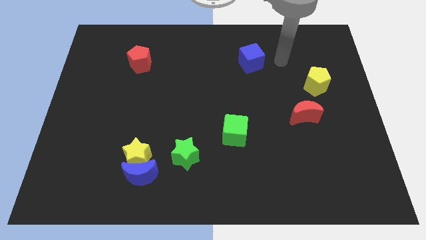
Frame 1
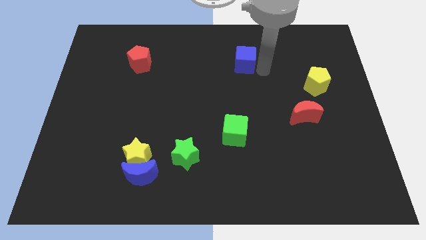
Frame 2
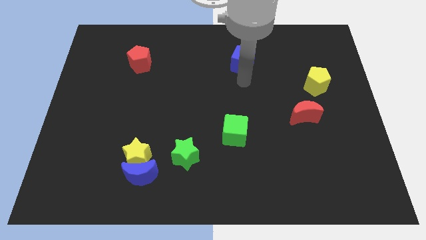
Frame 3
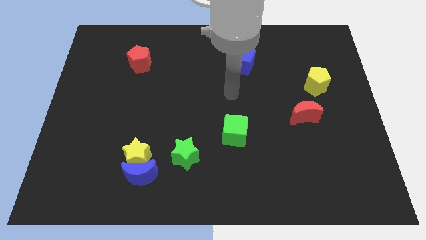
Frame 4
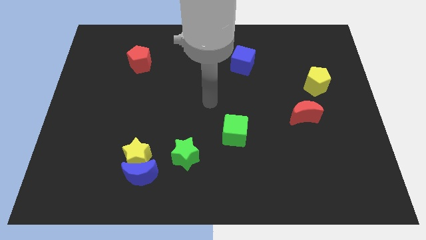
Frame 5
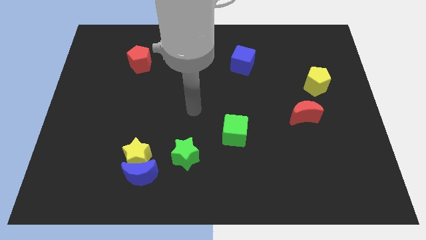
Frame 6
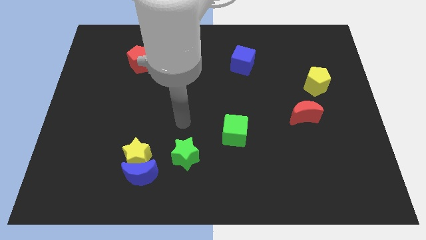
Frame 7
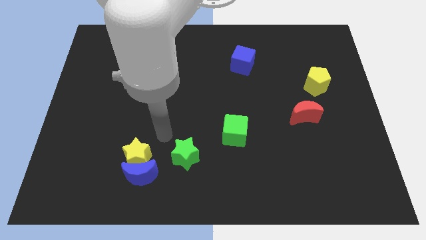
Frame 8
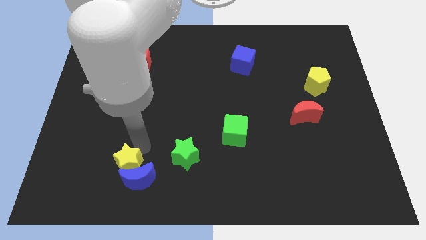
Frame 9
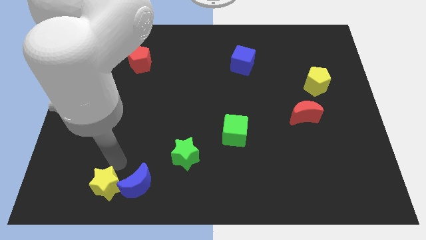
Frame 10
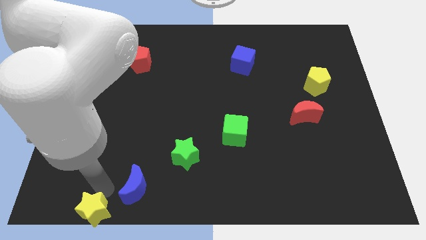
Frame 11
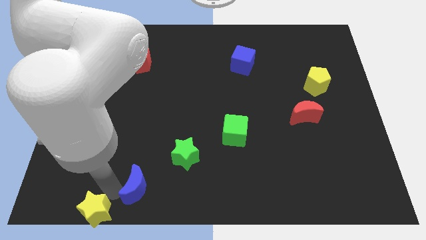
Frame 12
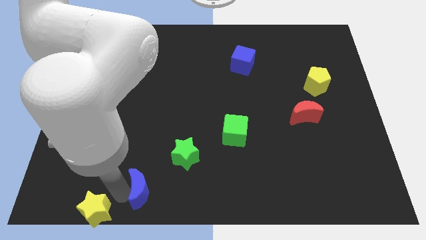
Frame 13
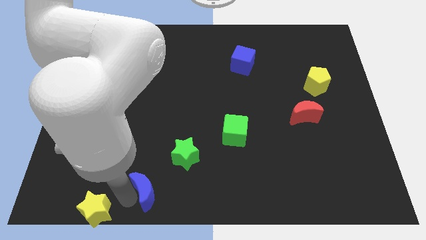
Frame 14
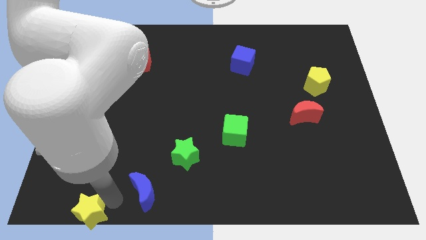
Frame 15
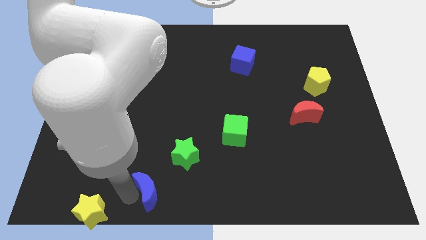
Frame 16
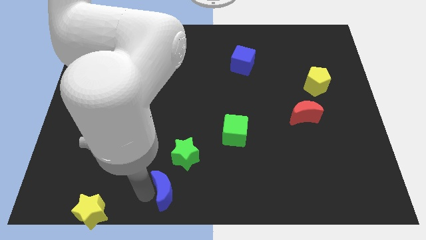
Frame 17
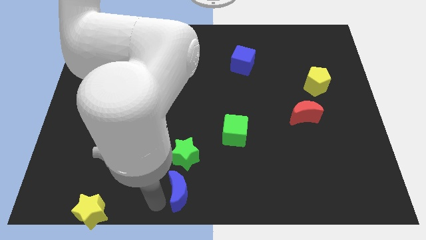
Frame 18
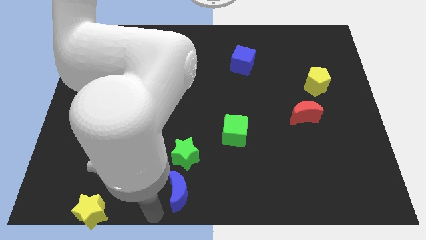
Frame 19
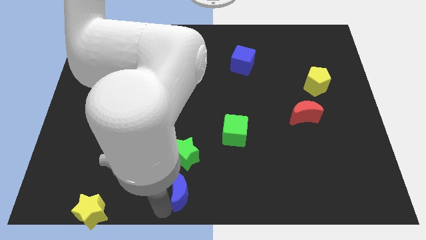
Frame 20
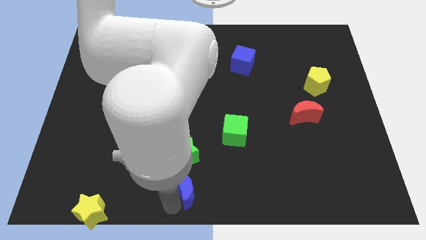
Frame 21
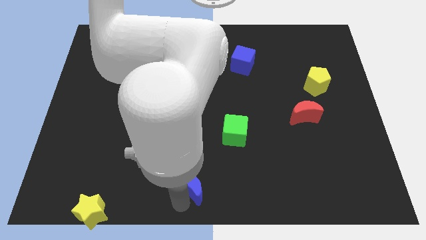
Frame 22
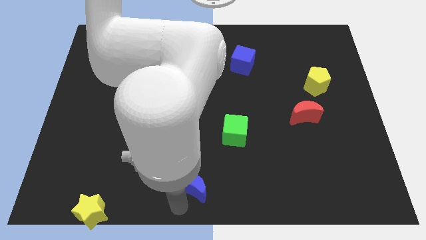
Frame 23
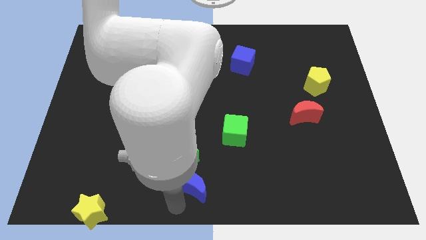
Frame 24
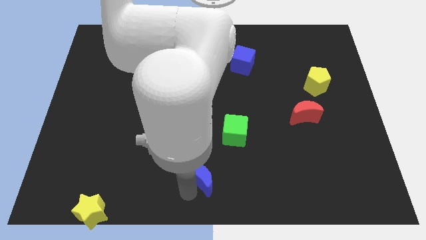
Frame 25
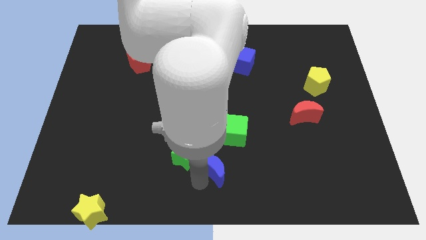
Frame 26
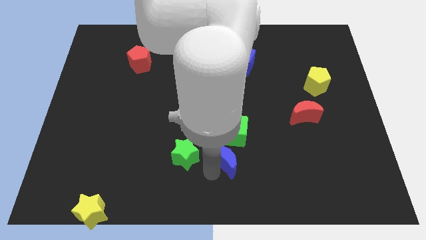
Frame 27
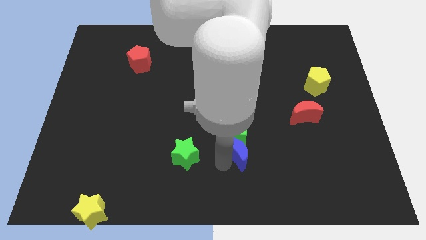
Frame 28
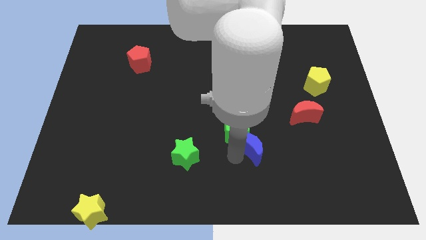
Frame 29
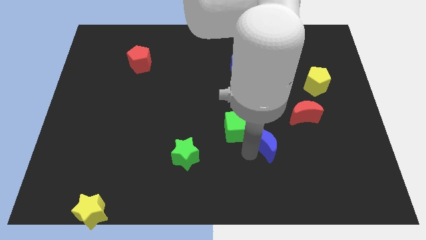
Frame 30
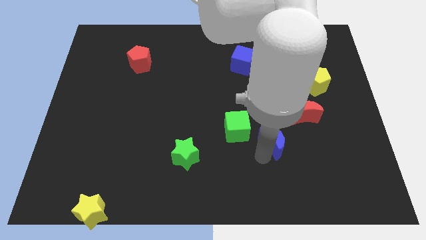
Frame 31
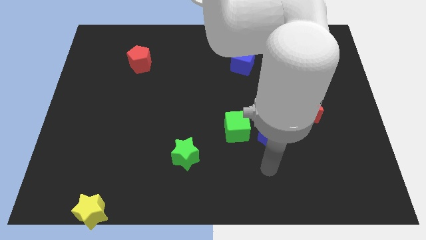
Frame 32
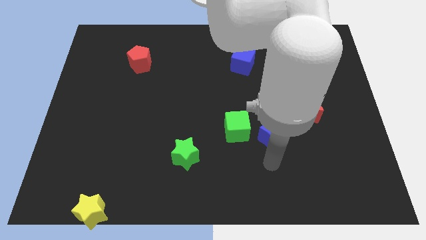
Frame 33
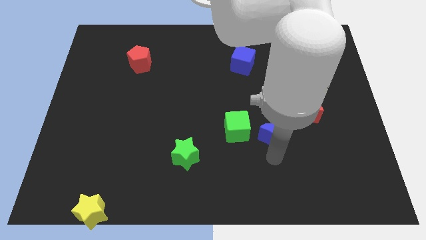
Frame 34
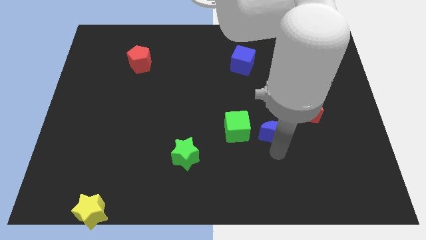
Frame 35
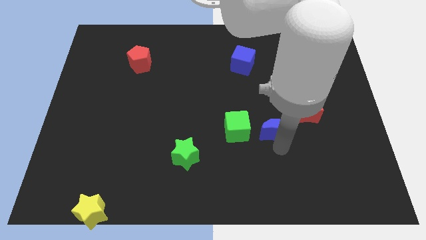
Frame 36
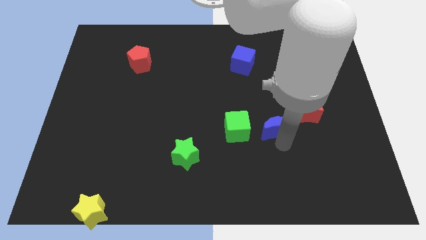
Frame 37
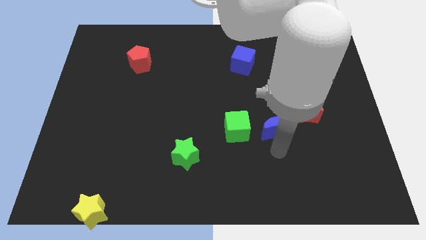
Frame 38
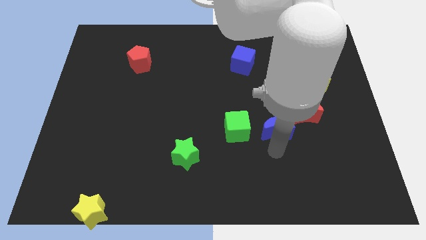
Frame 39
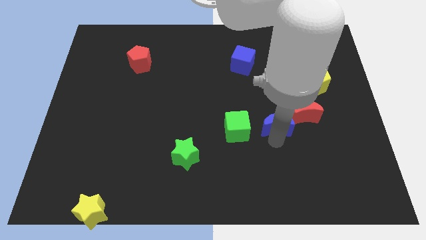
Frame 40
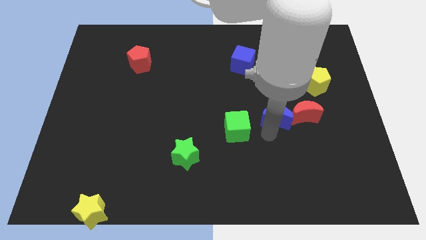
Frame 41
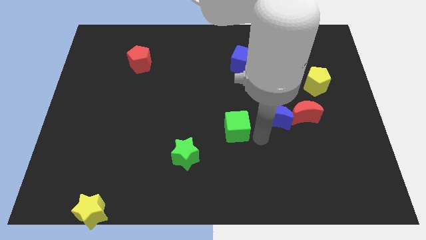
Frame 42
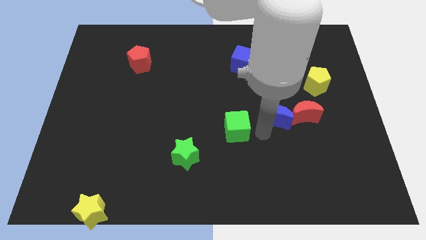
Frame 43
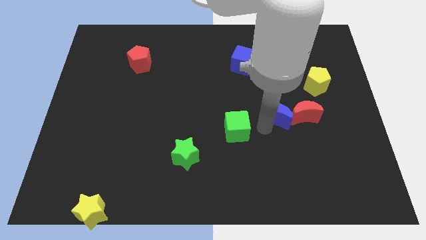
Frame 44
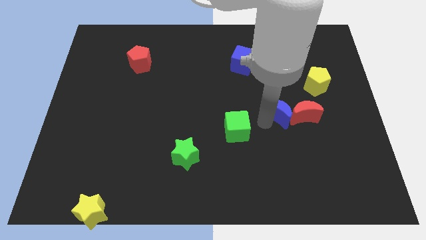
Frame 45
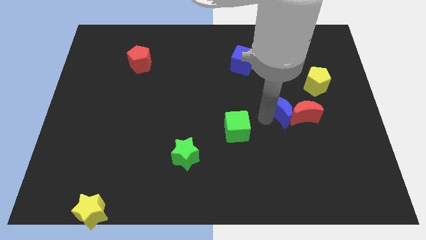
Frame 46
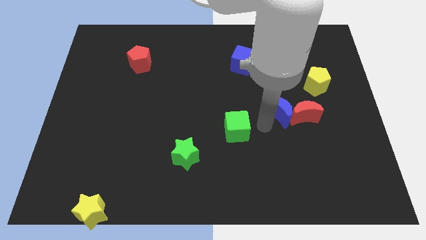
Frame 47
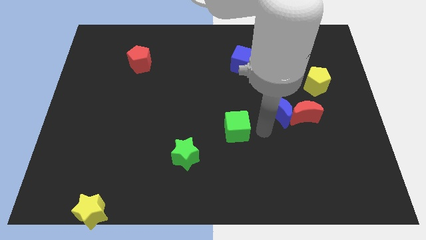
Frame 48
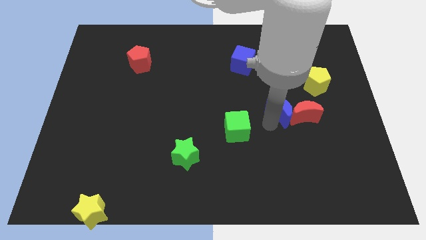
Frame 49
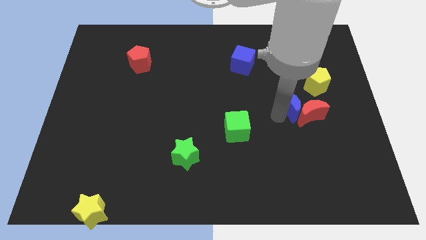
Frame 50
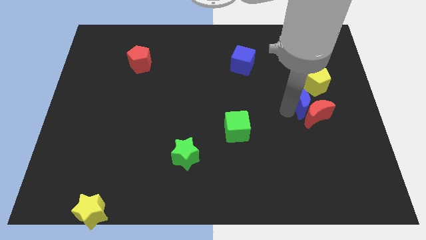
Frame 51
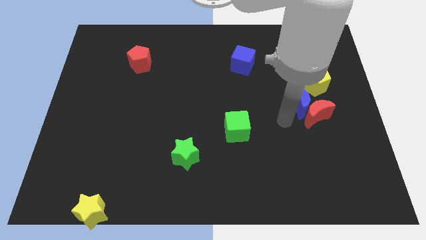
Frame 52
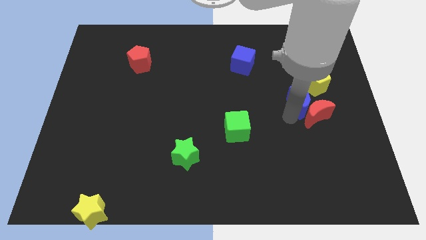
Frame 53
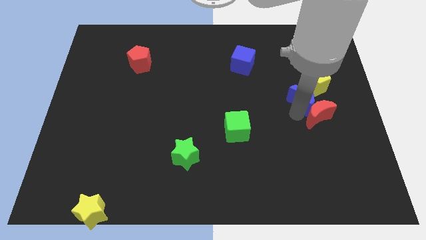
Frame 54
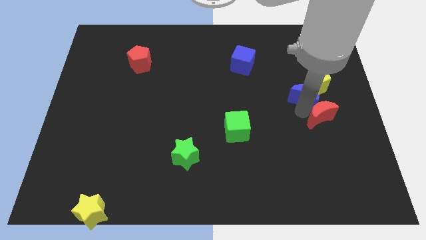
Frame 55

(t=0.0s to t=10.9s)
slide the blue moon to the yellow pentagon

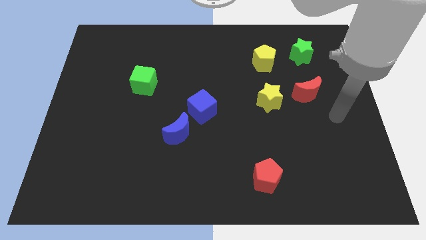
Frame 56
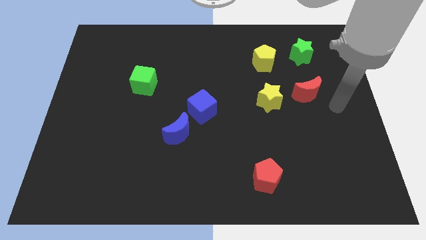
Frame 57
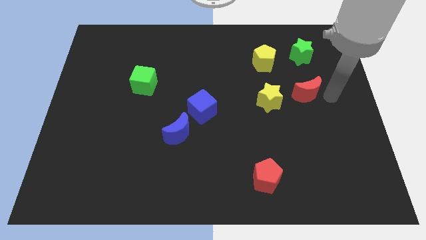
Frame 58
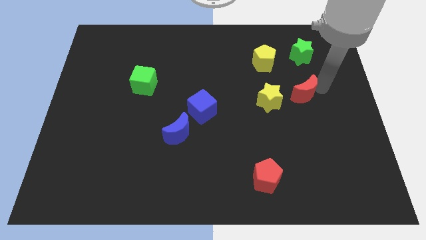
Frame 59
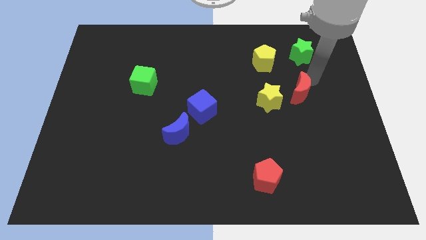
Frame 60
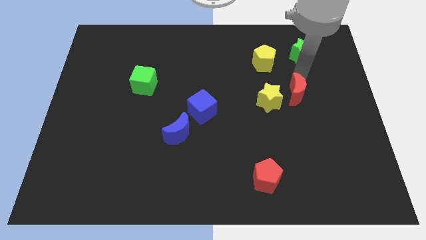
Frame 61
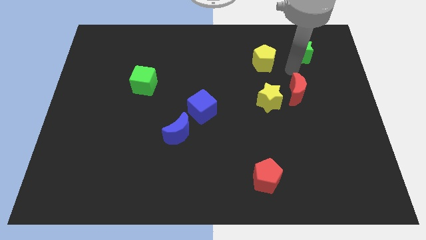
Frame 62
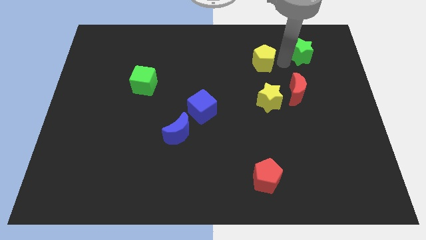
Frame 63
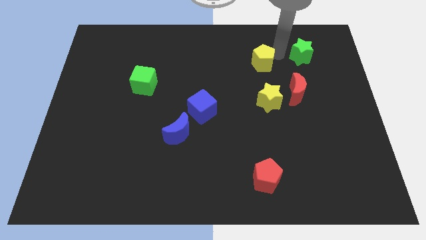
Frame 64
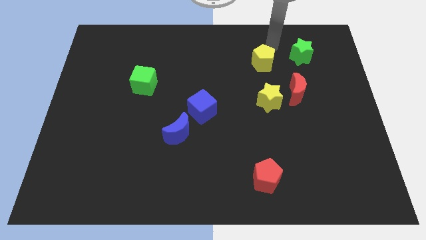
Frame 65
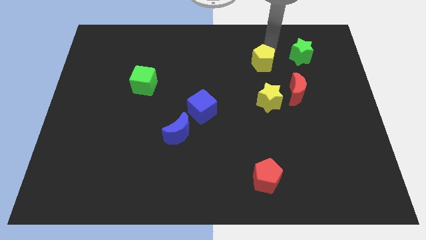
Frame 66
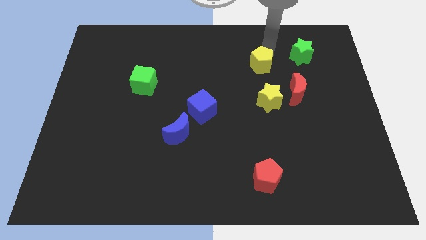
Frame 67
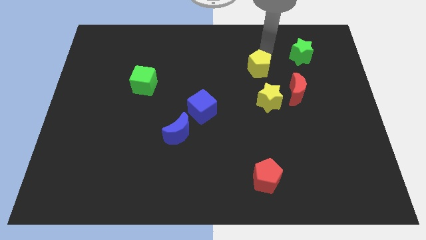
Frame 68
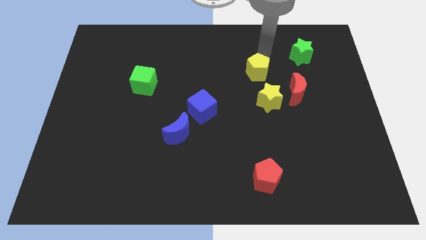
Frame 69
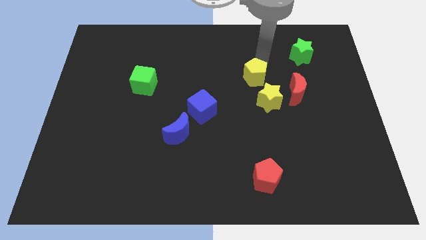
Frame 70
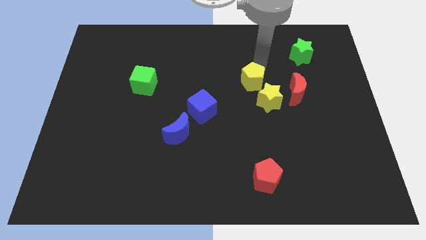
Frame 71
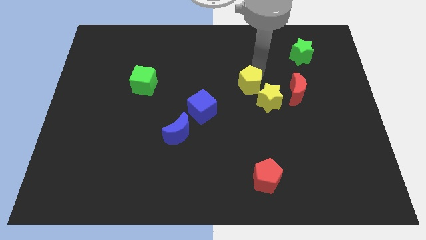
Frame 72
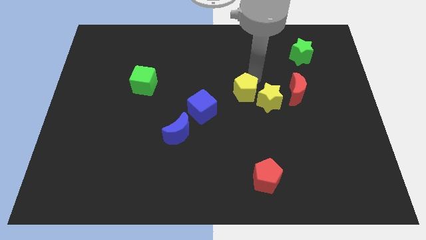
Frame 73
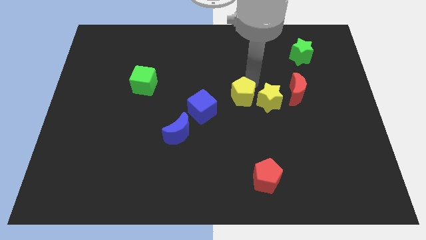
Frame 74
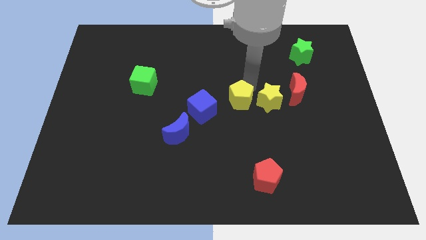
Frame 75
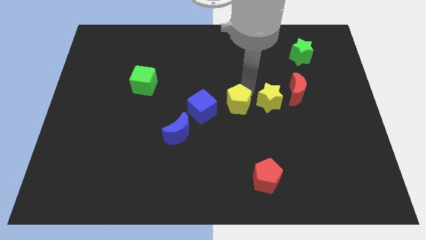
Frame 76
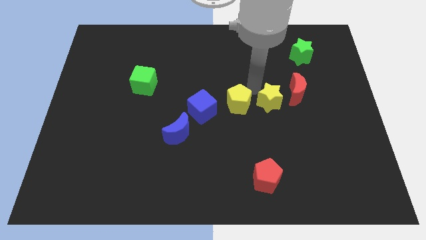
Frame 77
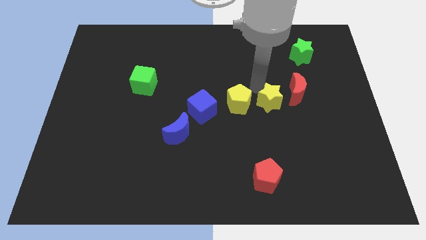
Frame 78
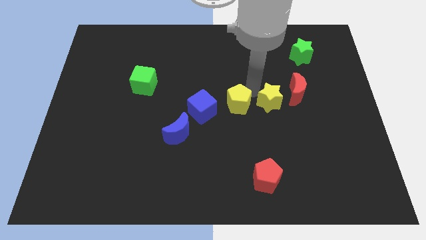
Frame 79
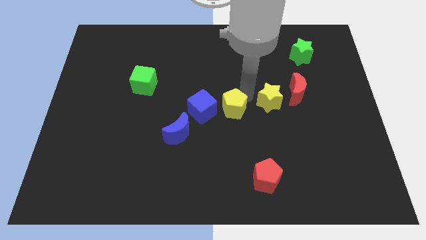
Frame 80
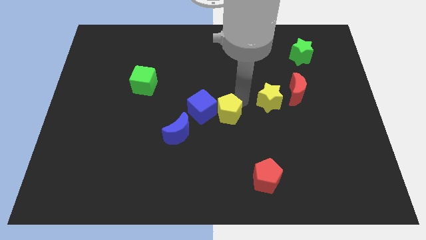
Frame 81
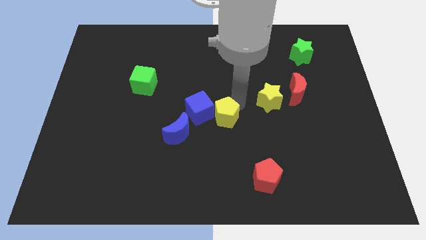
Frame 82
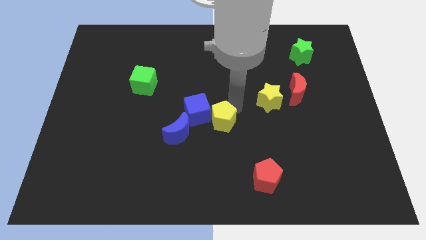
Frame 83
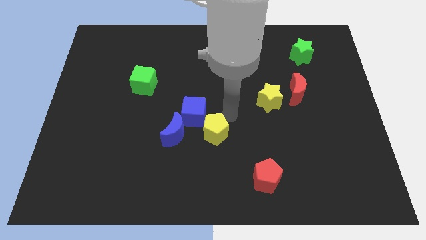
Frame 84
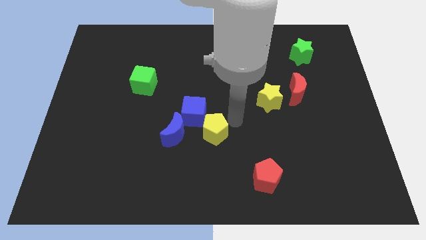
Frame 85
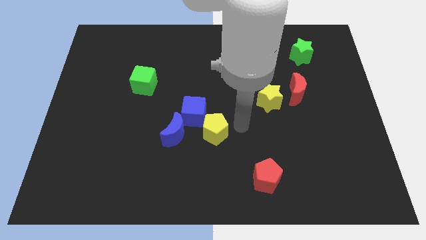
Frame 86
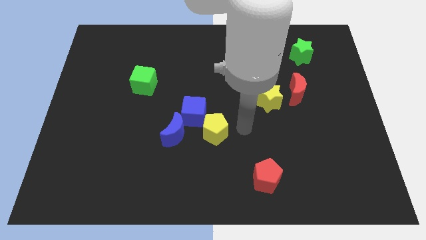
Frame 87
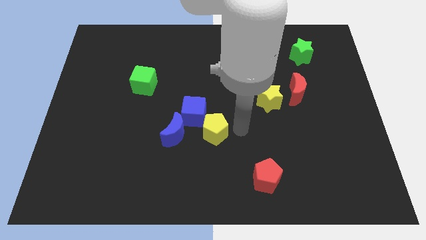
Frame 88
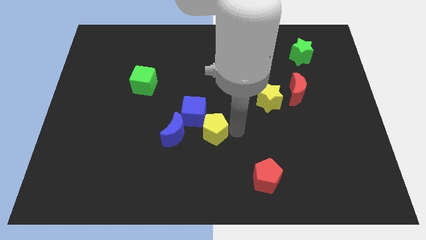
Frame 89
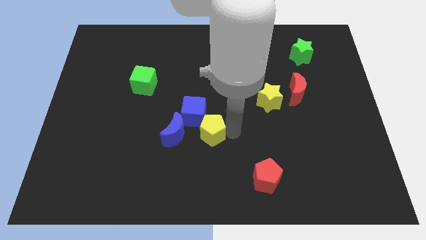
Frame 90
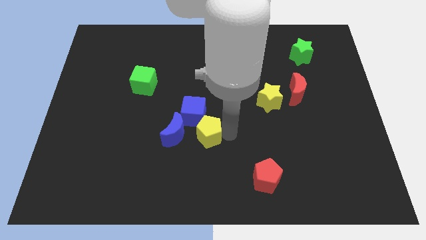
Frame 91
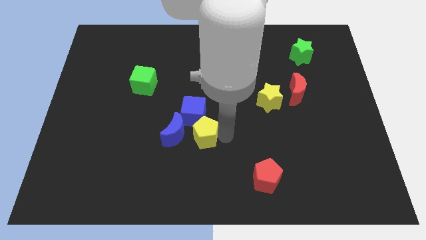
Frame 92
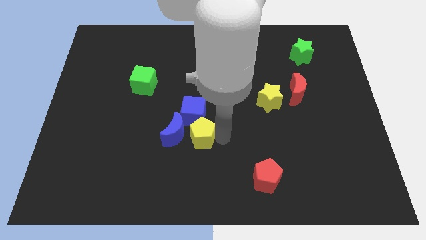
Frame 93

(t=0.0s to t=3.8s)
push the yellow pentagon next to the blue moon
